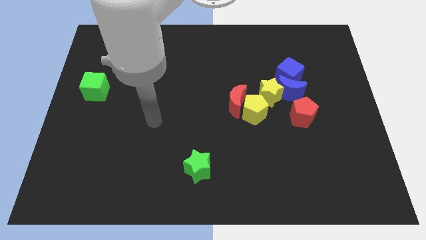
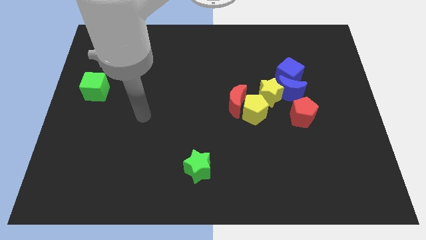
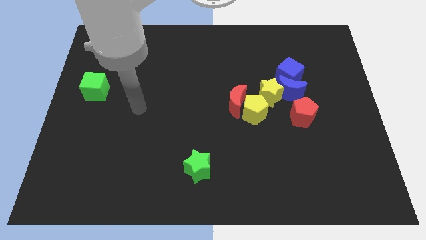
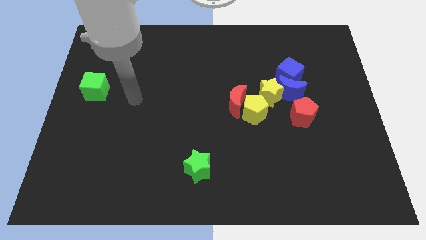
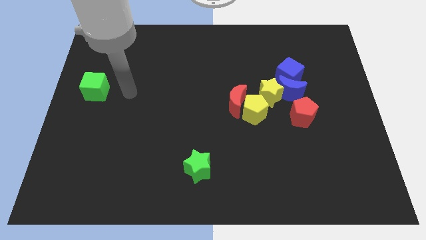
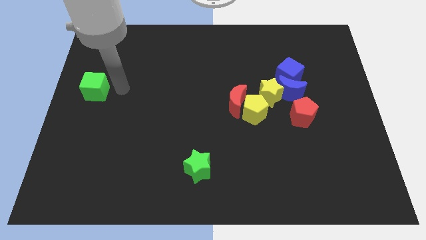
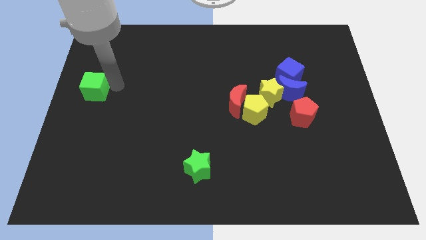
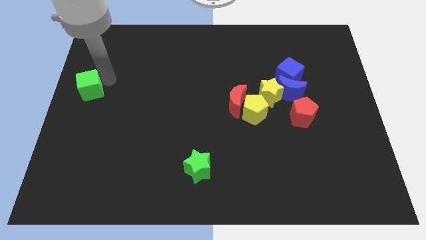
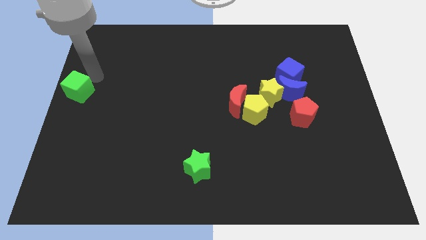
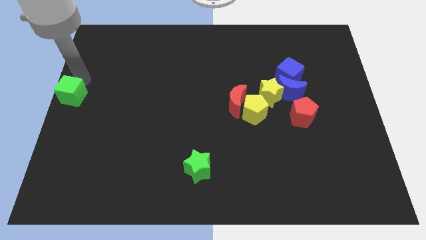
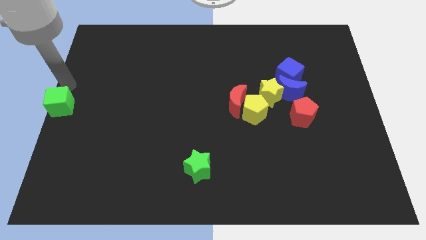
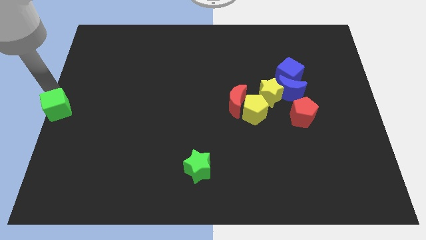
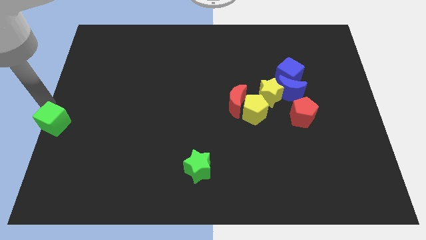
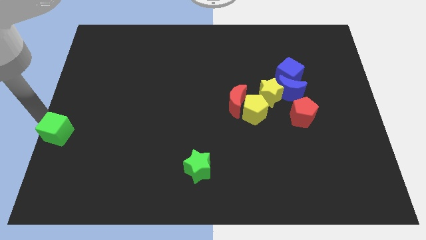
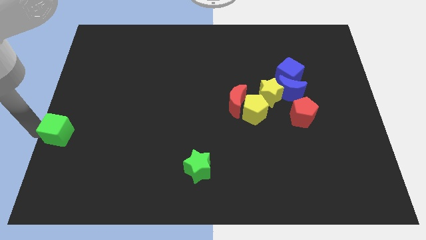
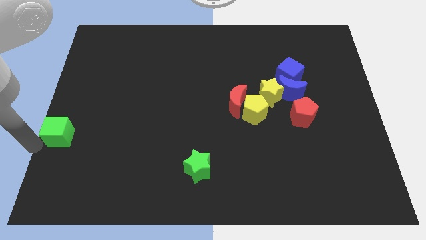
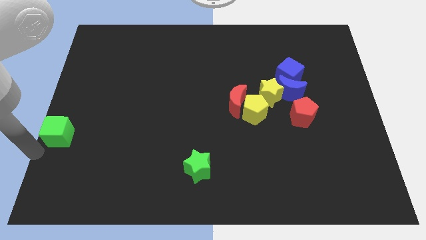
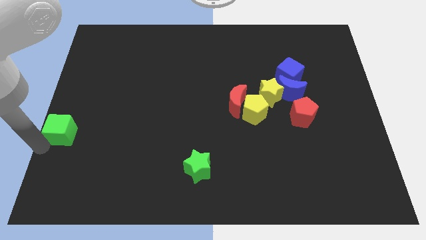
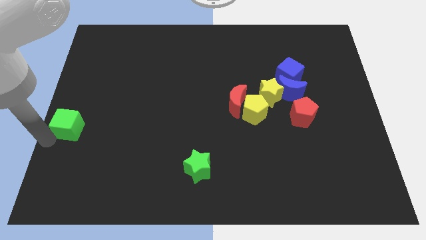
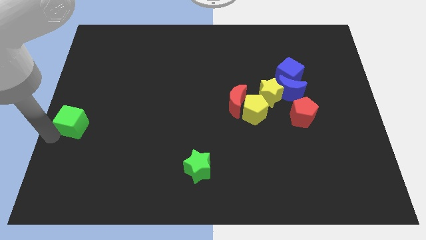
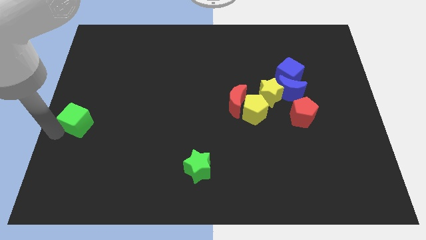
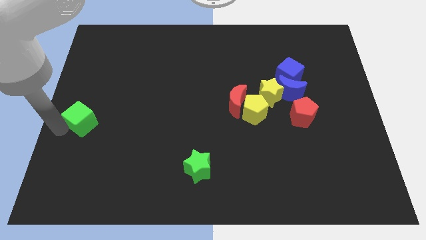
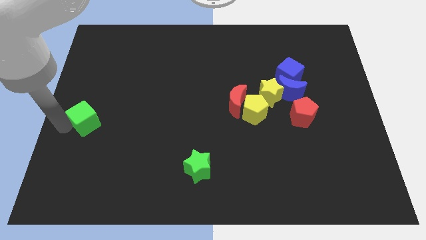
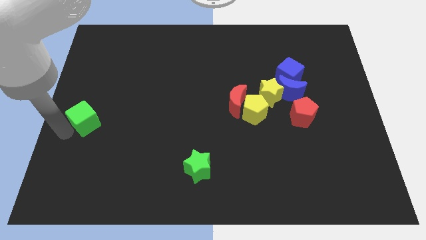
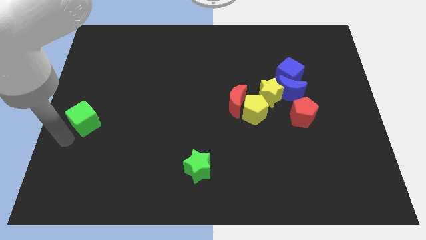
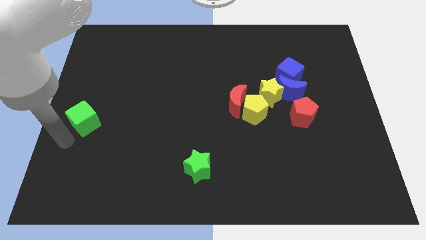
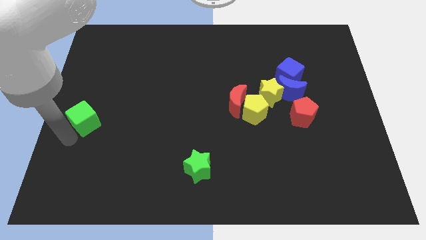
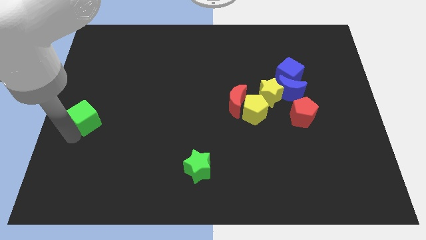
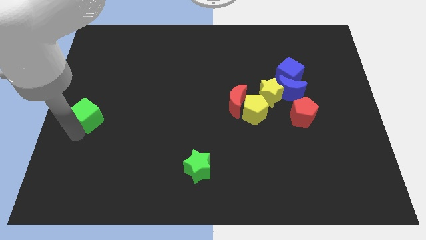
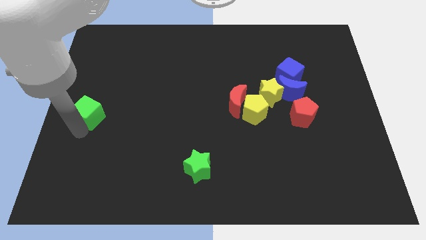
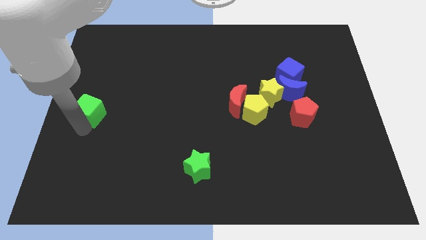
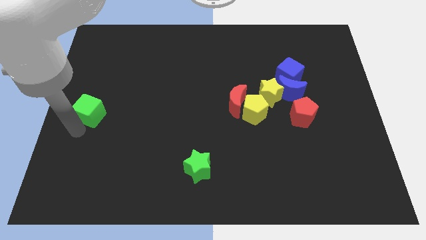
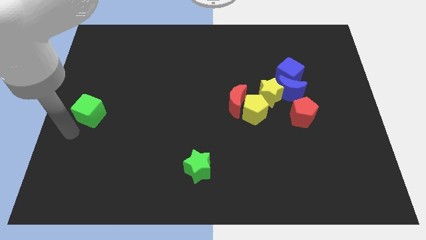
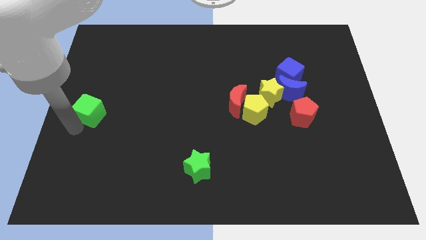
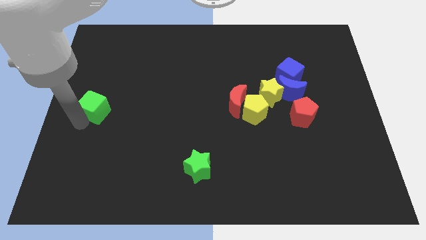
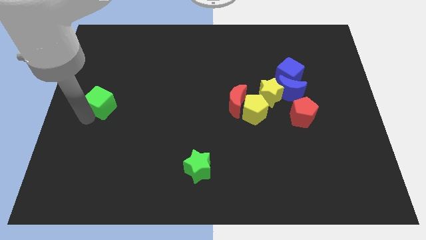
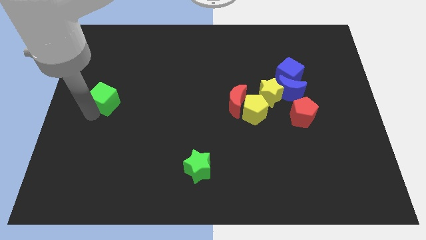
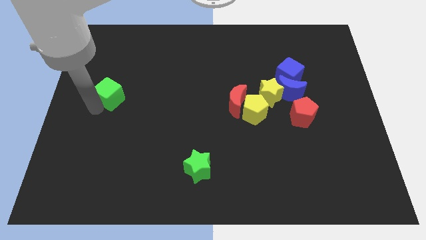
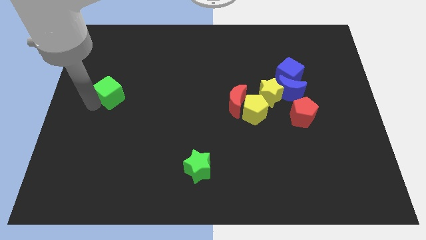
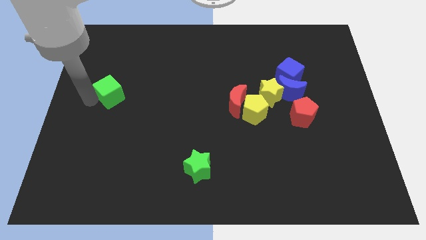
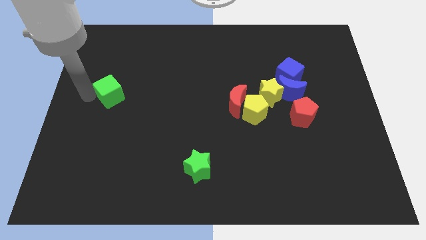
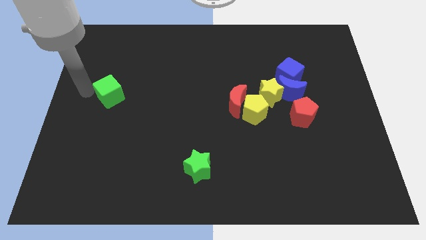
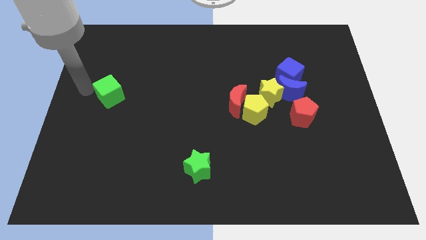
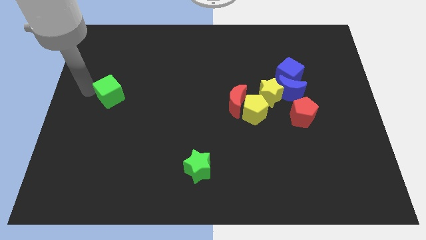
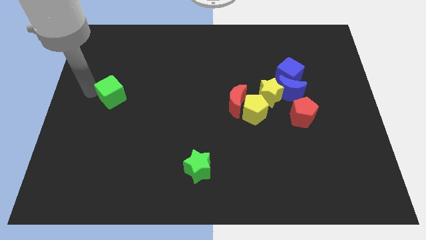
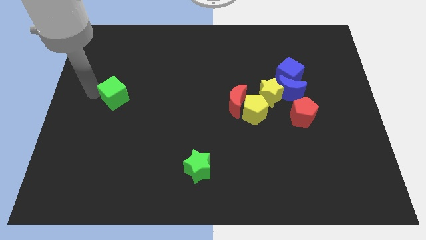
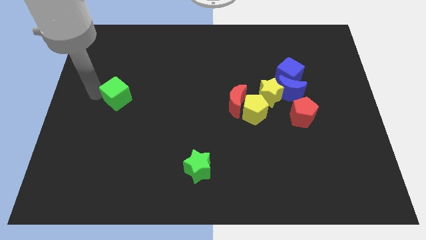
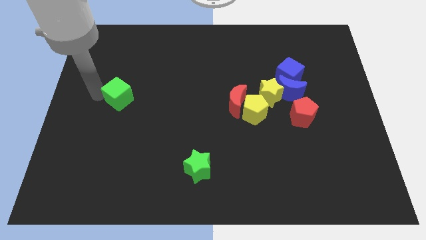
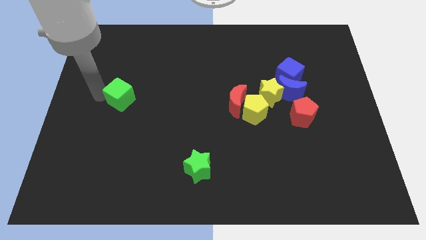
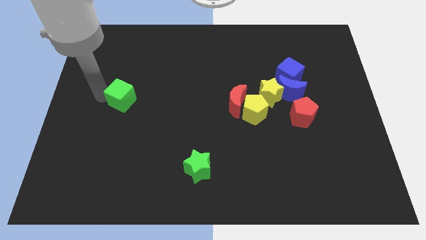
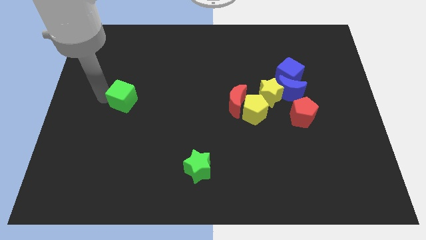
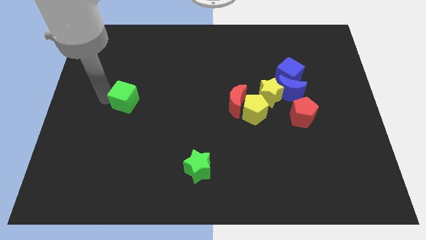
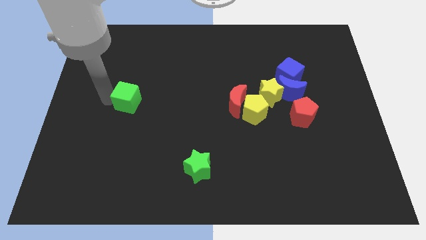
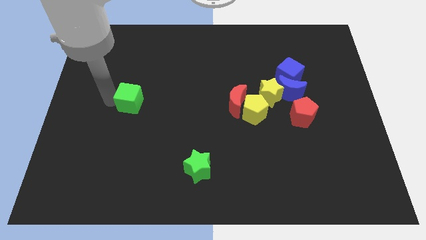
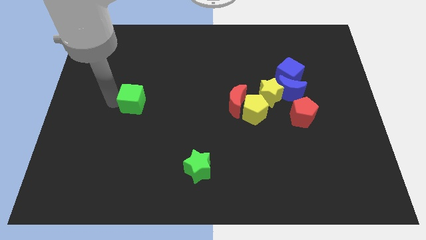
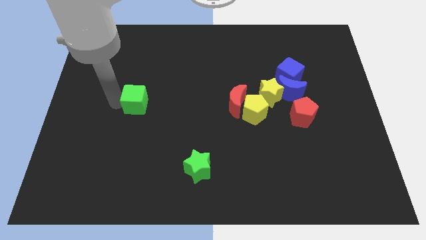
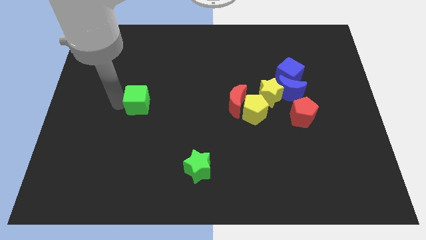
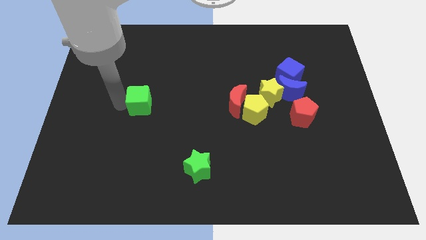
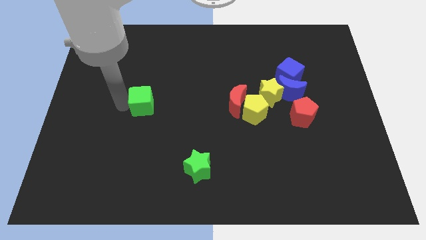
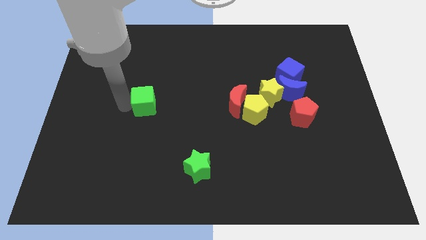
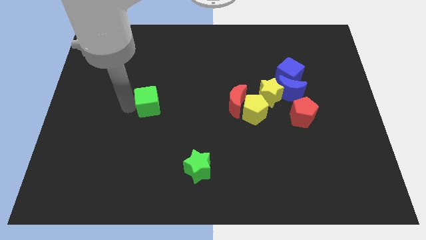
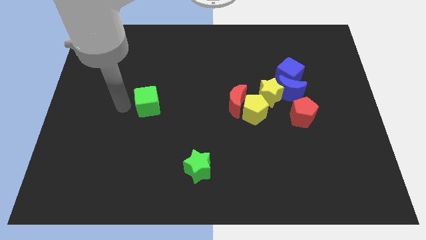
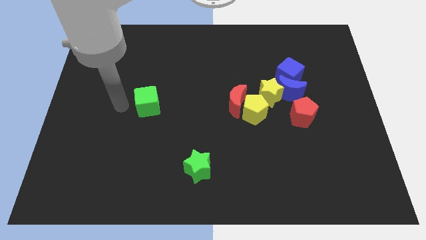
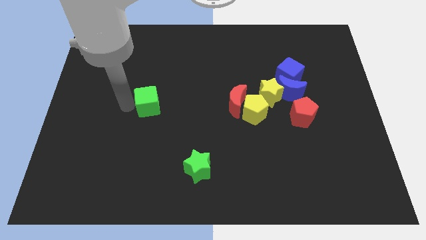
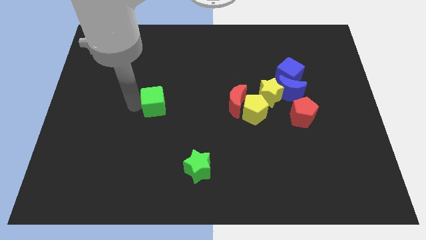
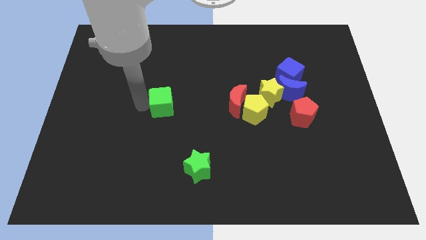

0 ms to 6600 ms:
push the green cube to the middle
